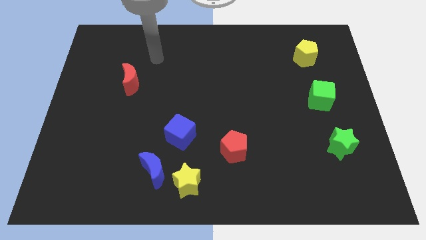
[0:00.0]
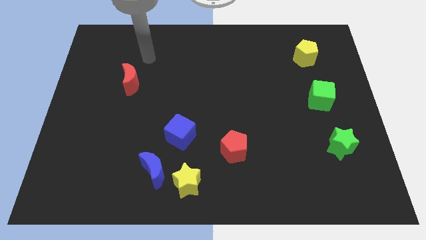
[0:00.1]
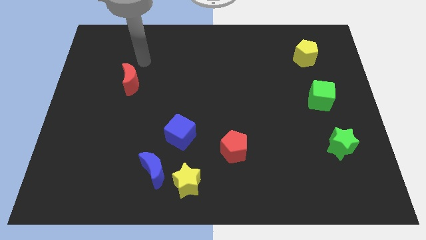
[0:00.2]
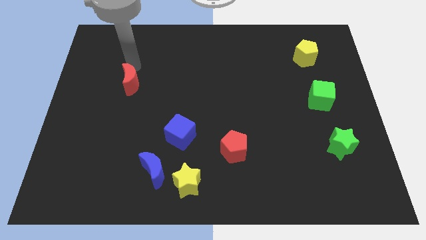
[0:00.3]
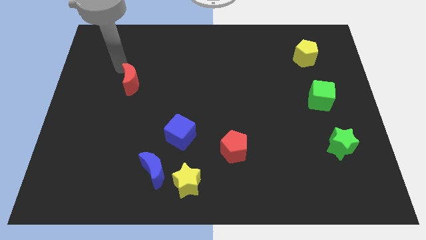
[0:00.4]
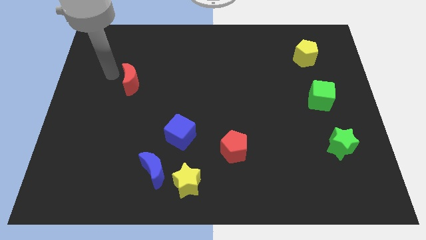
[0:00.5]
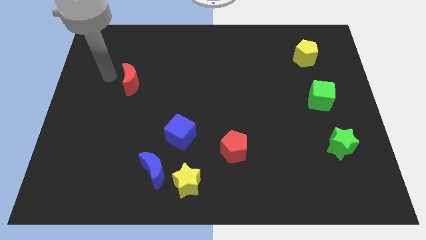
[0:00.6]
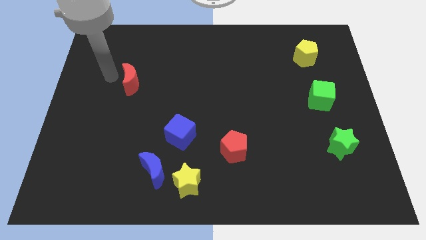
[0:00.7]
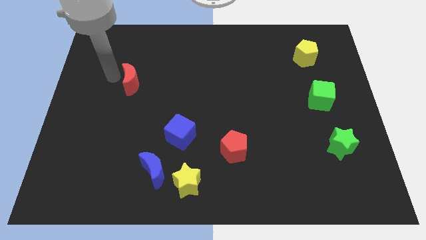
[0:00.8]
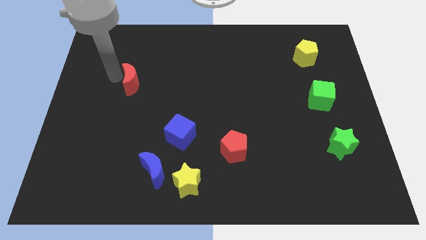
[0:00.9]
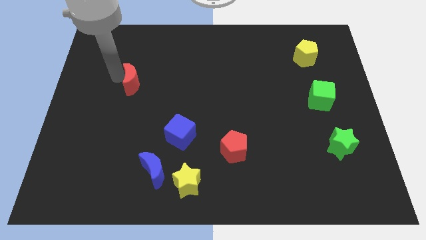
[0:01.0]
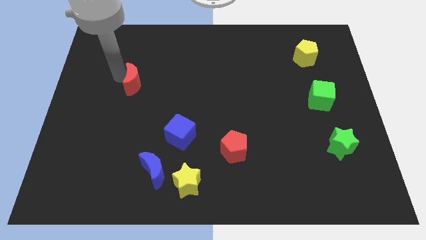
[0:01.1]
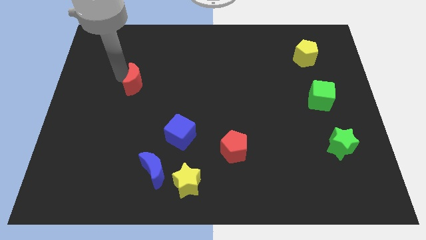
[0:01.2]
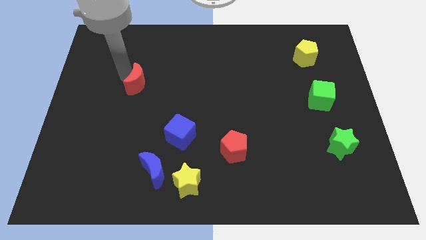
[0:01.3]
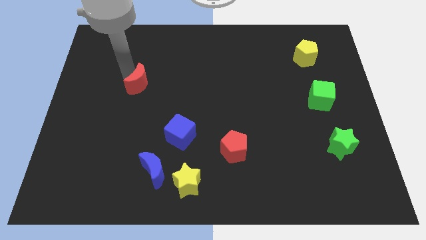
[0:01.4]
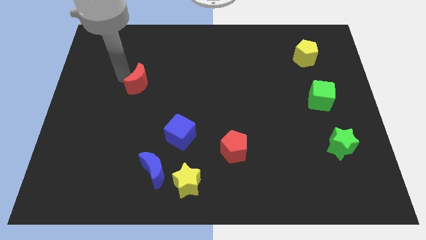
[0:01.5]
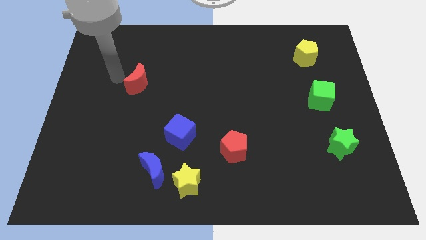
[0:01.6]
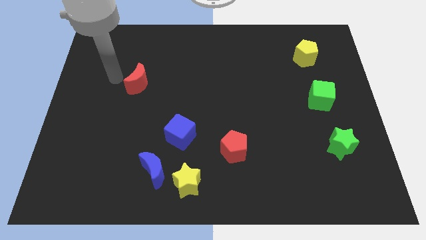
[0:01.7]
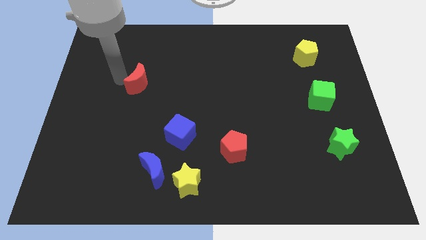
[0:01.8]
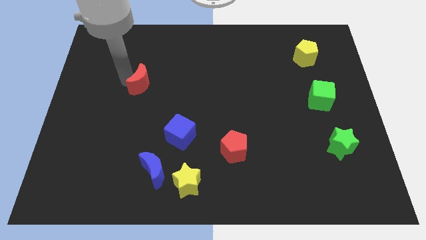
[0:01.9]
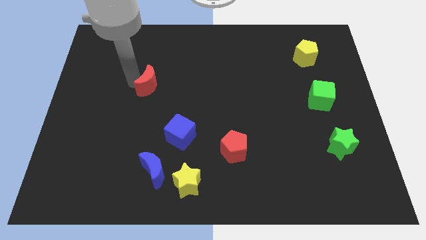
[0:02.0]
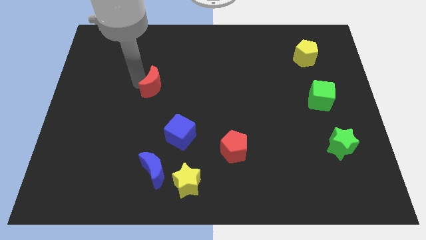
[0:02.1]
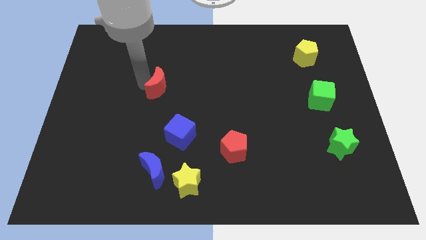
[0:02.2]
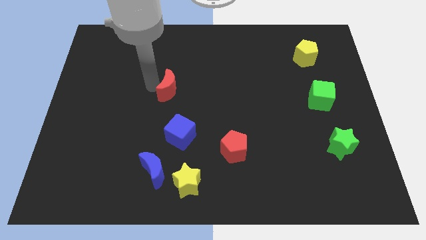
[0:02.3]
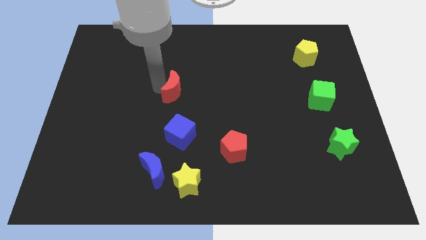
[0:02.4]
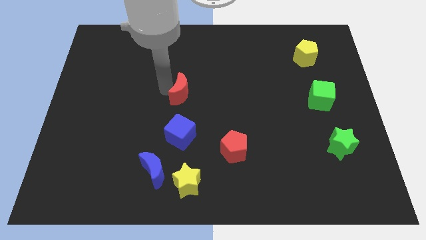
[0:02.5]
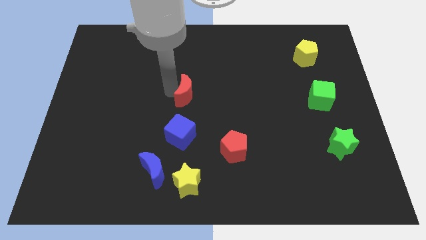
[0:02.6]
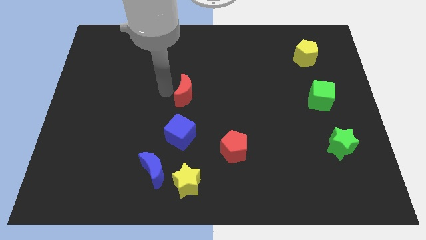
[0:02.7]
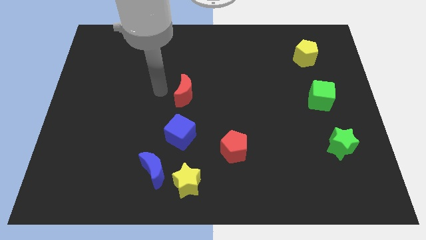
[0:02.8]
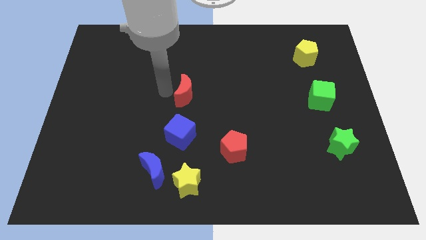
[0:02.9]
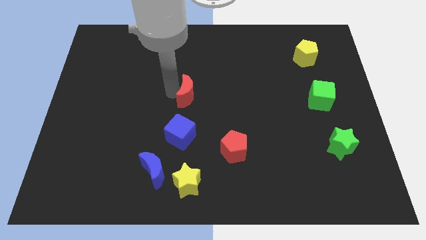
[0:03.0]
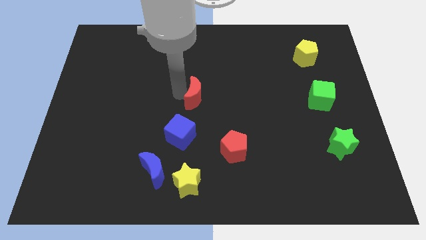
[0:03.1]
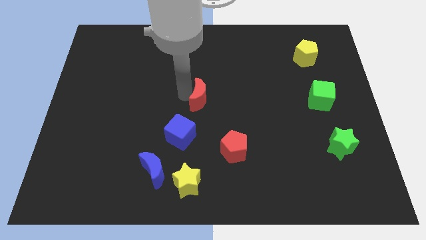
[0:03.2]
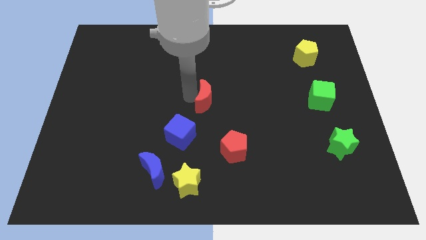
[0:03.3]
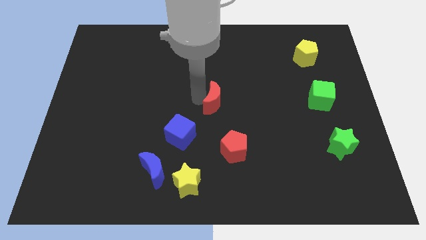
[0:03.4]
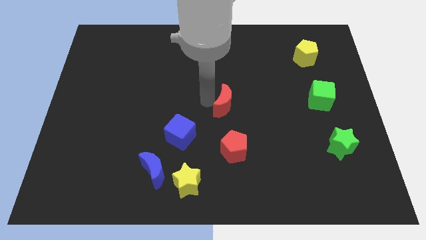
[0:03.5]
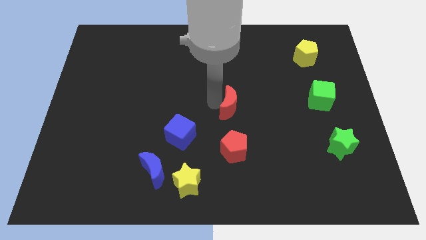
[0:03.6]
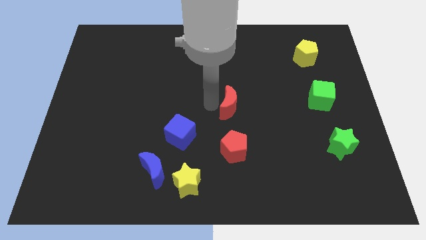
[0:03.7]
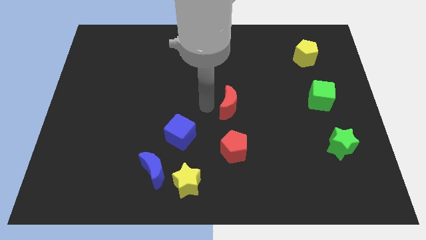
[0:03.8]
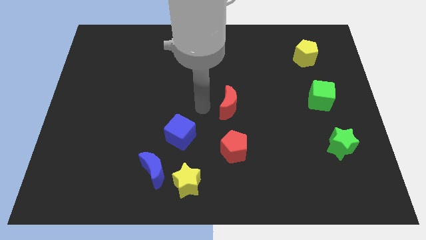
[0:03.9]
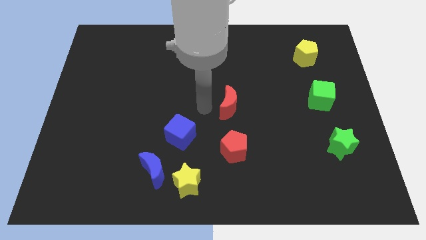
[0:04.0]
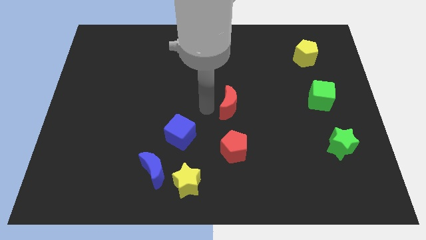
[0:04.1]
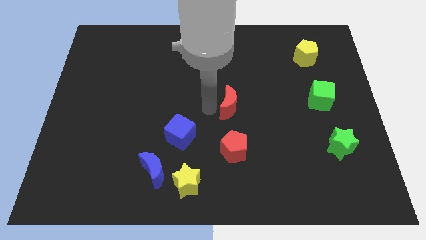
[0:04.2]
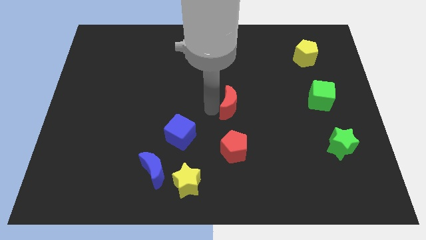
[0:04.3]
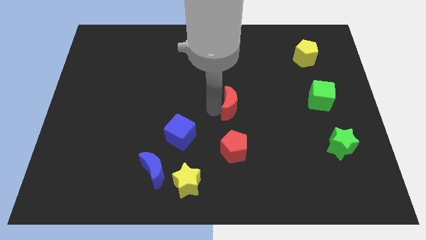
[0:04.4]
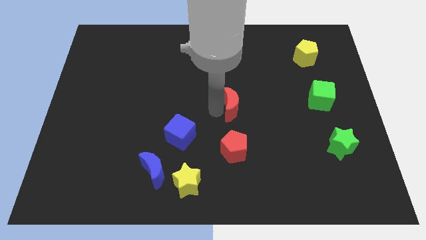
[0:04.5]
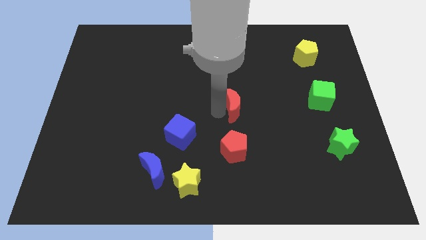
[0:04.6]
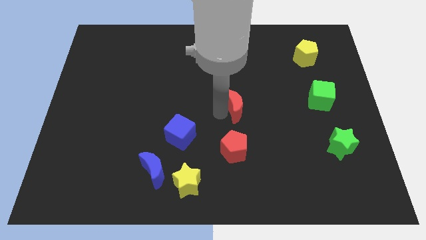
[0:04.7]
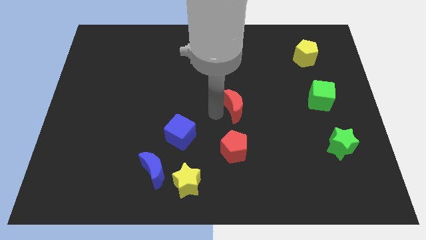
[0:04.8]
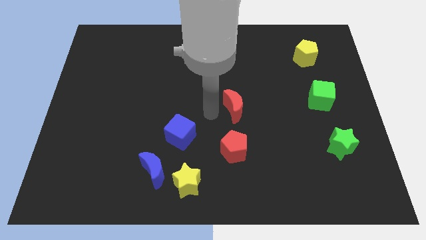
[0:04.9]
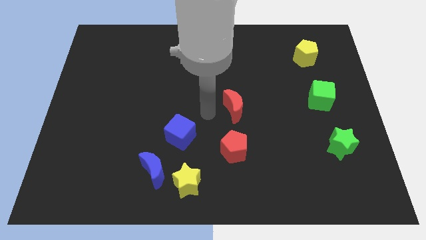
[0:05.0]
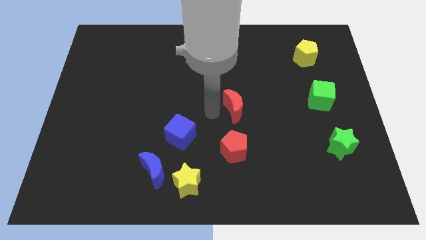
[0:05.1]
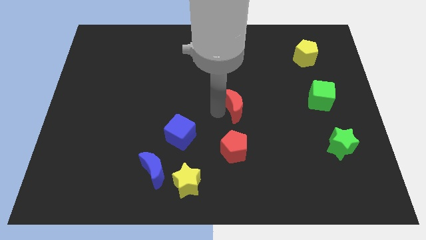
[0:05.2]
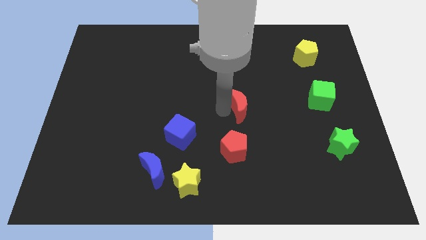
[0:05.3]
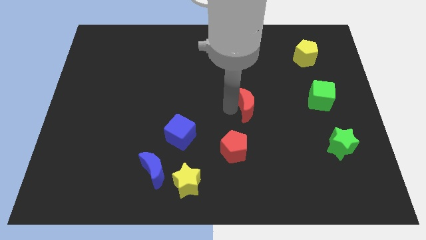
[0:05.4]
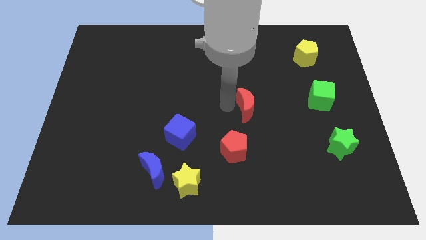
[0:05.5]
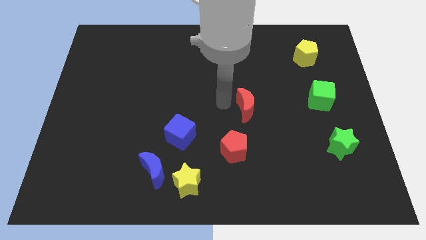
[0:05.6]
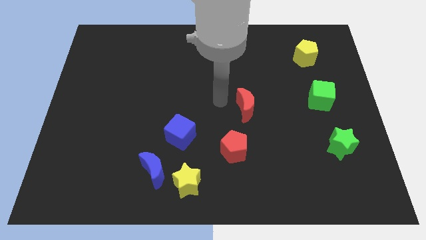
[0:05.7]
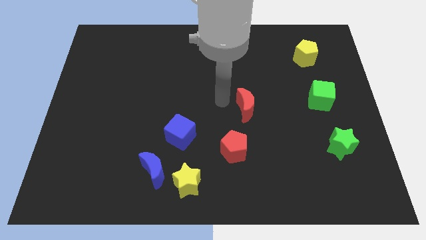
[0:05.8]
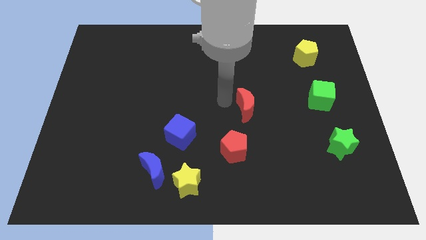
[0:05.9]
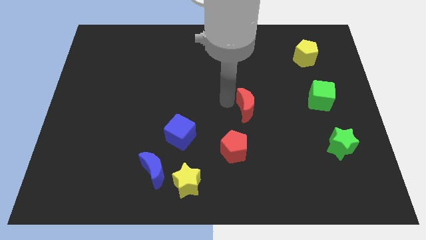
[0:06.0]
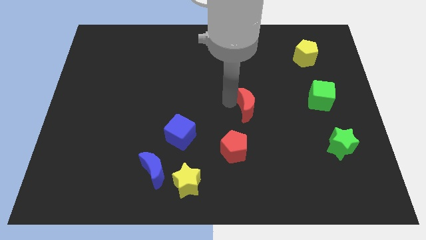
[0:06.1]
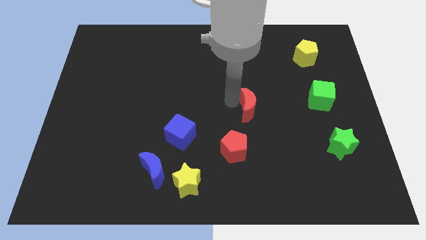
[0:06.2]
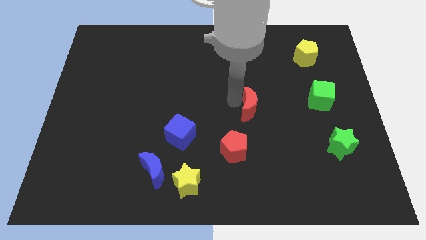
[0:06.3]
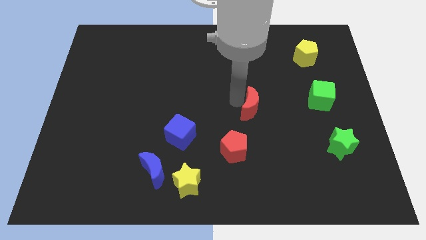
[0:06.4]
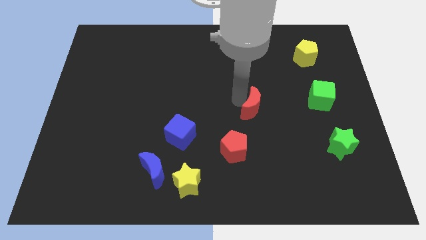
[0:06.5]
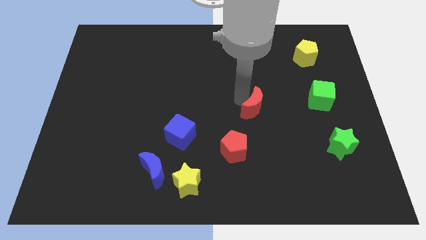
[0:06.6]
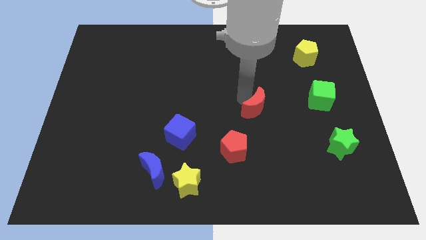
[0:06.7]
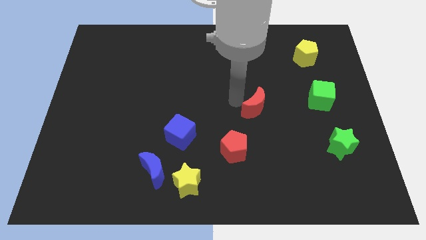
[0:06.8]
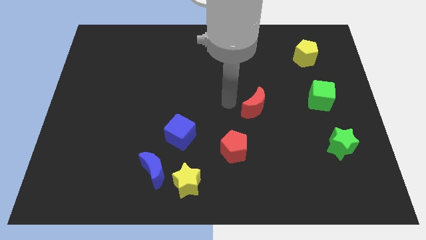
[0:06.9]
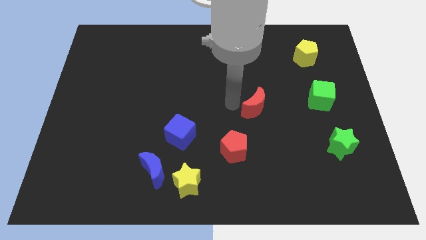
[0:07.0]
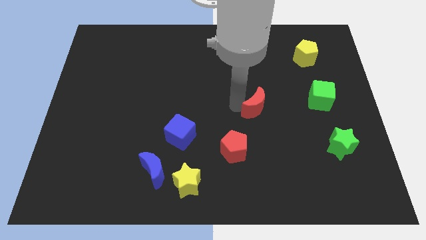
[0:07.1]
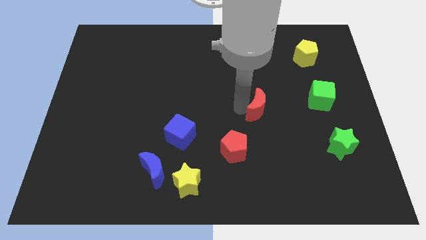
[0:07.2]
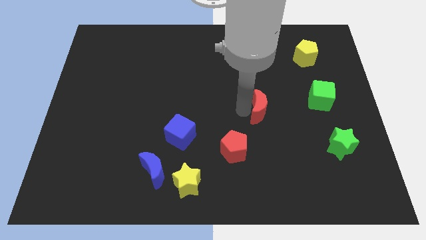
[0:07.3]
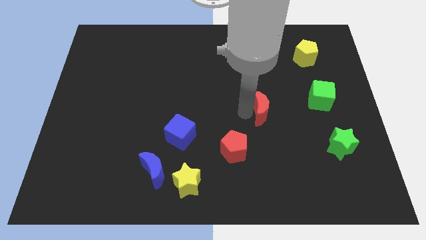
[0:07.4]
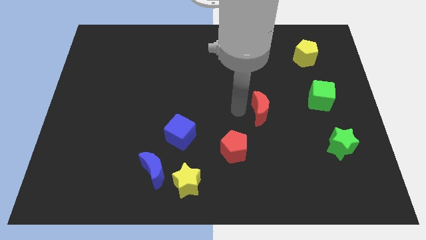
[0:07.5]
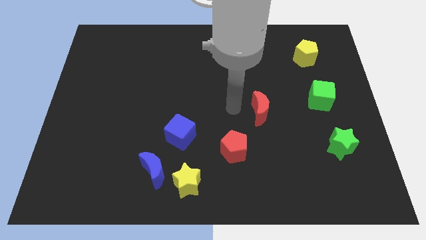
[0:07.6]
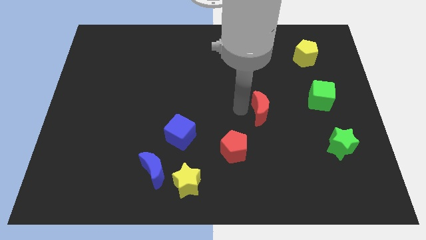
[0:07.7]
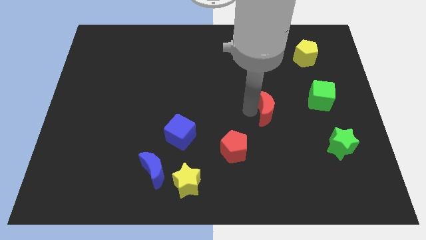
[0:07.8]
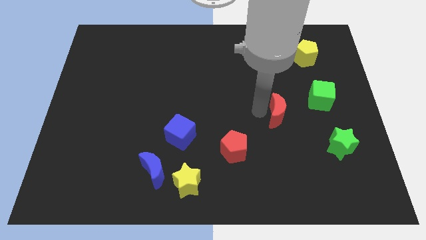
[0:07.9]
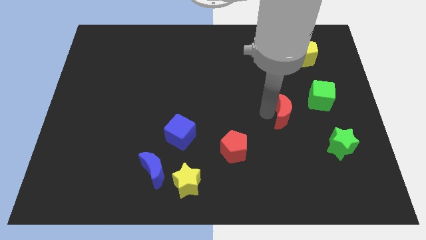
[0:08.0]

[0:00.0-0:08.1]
put the red moon to the bottom left of the green cube
